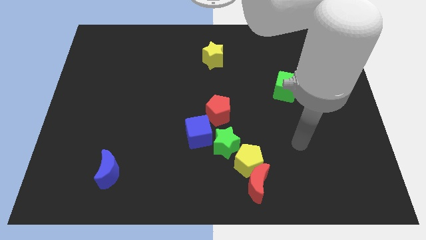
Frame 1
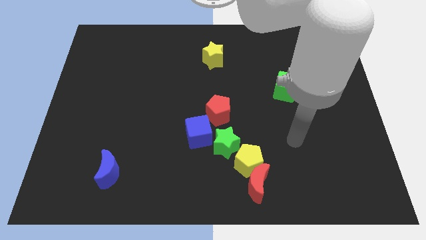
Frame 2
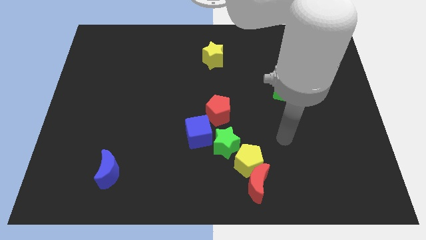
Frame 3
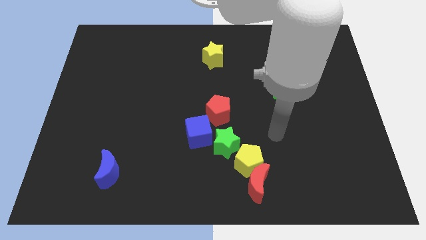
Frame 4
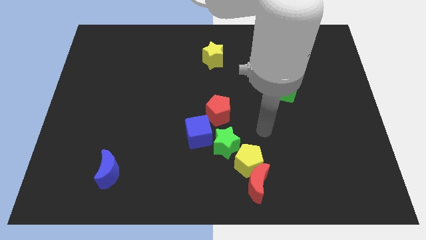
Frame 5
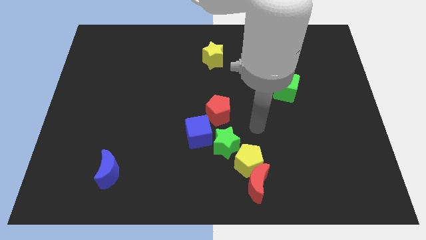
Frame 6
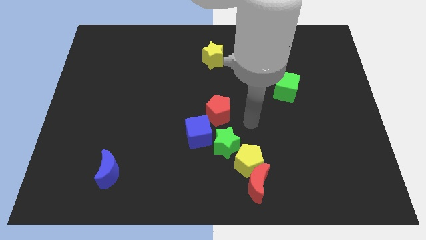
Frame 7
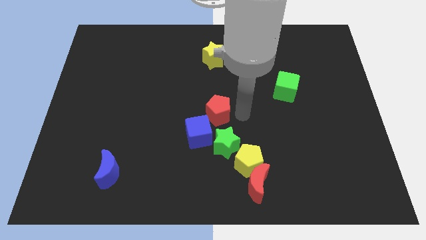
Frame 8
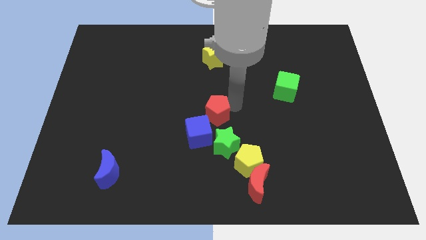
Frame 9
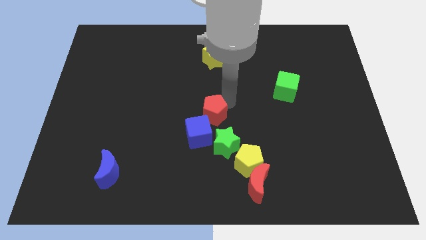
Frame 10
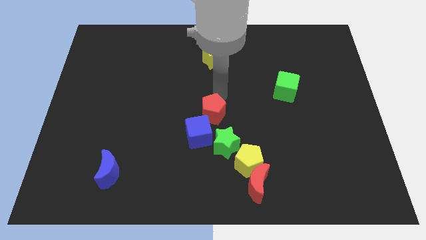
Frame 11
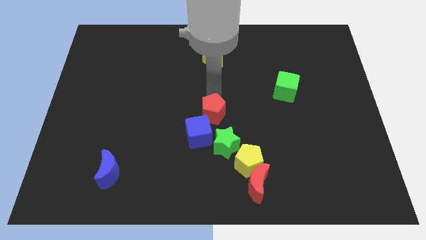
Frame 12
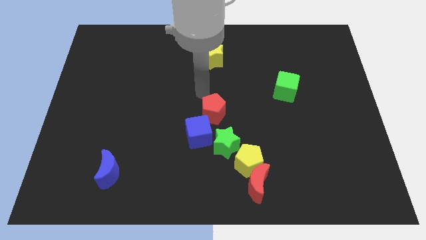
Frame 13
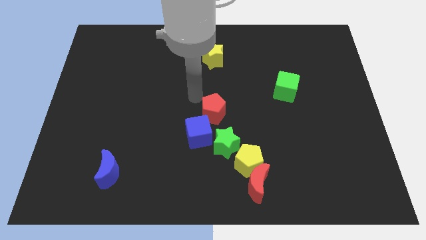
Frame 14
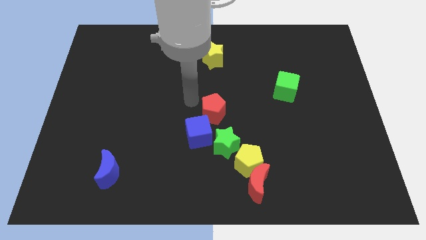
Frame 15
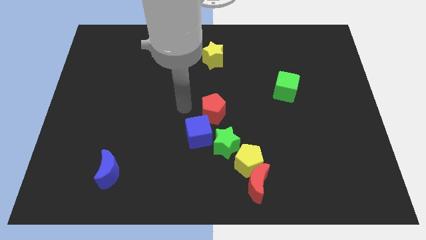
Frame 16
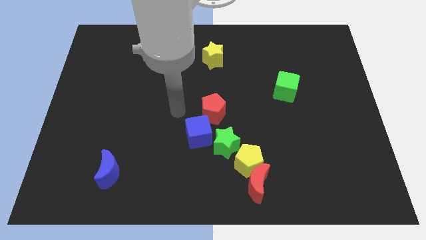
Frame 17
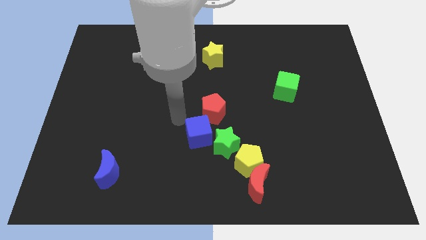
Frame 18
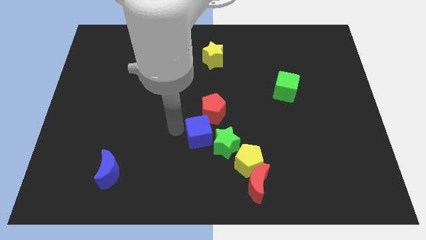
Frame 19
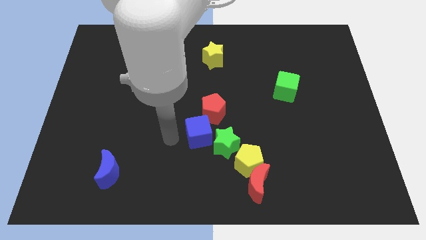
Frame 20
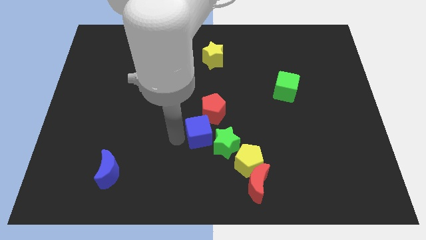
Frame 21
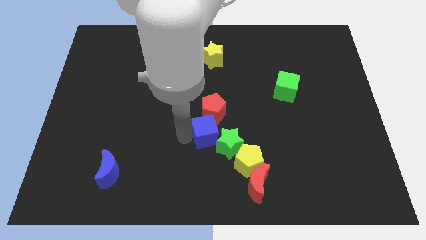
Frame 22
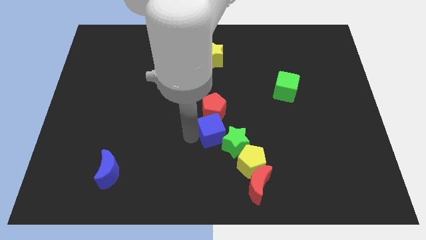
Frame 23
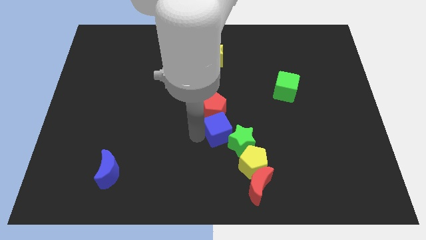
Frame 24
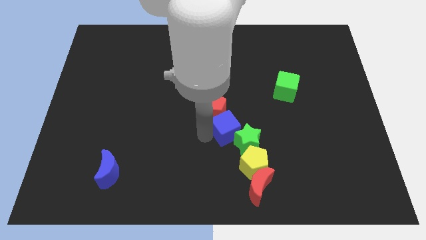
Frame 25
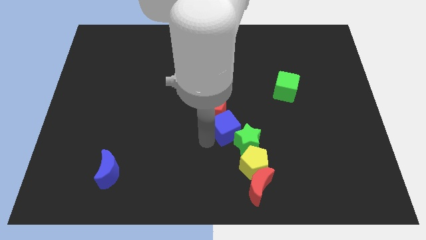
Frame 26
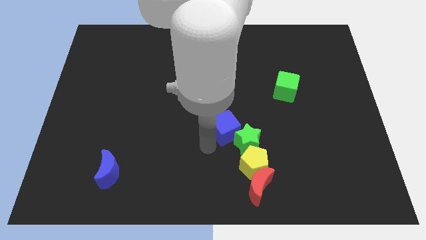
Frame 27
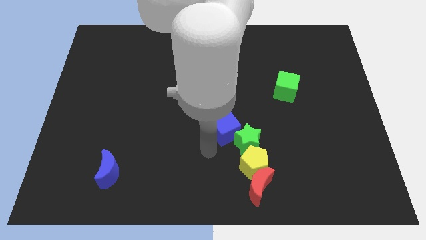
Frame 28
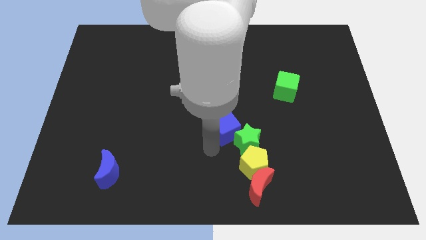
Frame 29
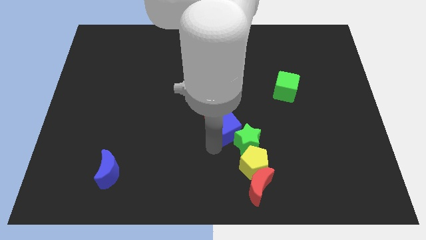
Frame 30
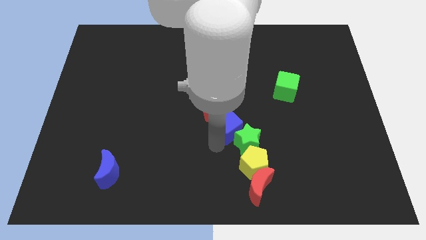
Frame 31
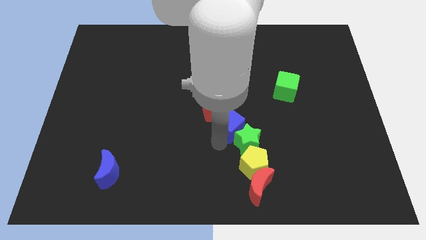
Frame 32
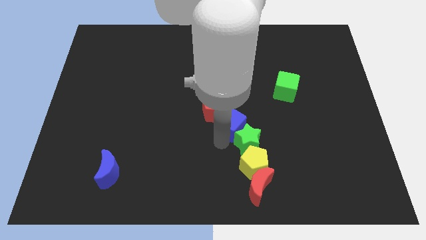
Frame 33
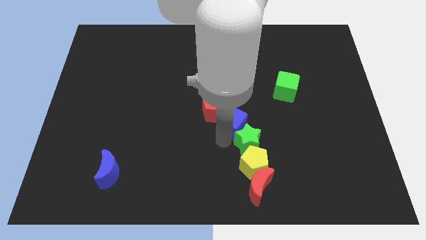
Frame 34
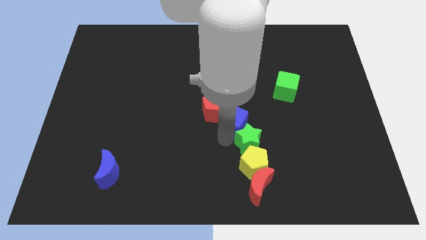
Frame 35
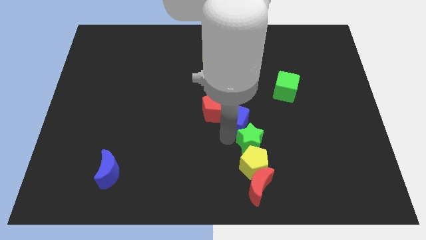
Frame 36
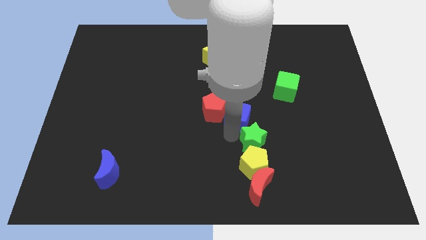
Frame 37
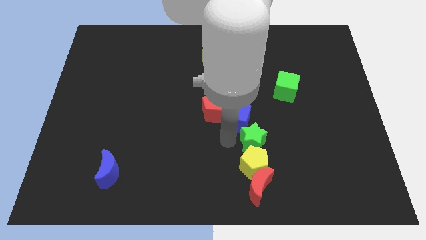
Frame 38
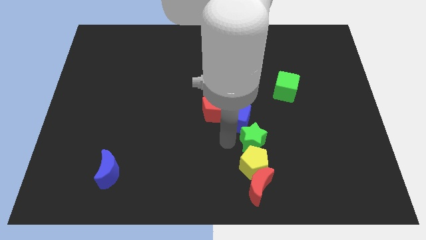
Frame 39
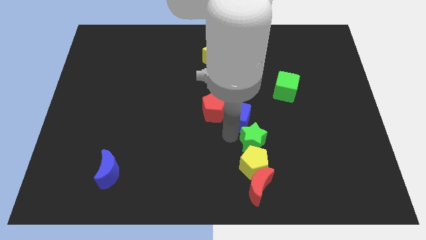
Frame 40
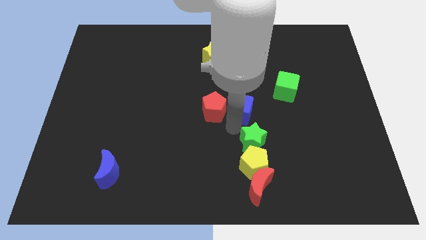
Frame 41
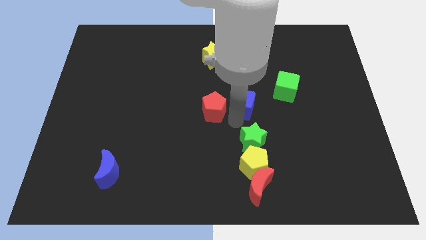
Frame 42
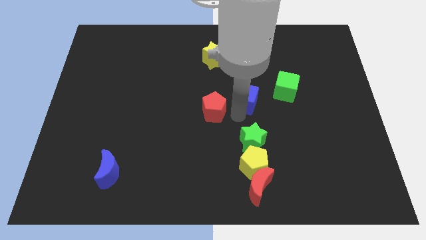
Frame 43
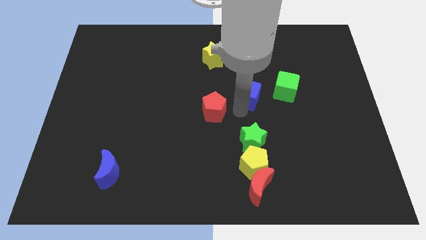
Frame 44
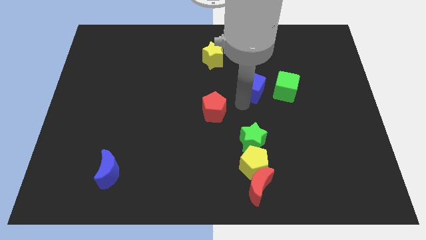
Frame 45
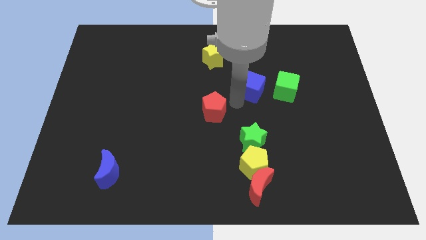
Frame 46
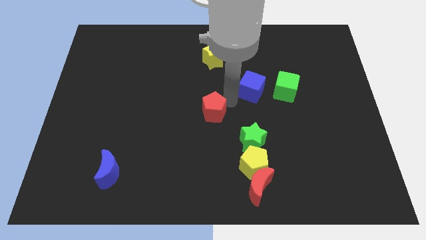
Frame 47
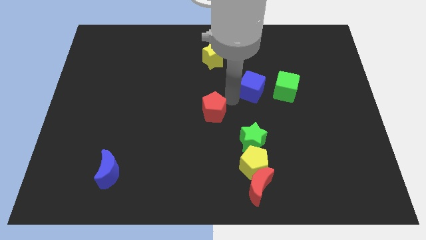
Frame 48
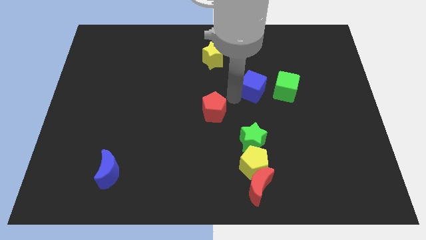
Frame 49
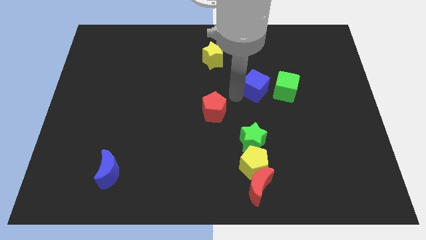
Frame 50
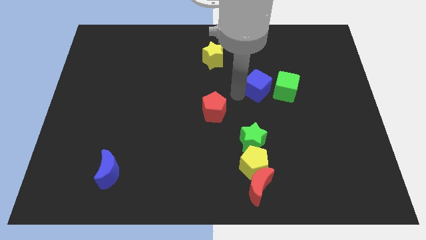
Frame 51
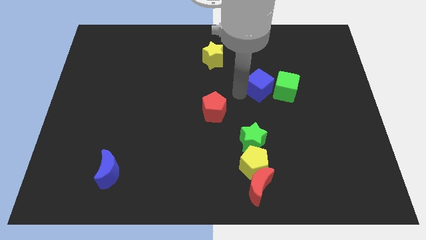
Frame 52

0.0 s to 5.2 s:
move the blue cube diagonally upwards and to the right

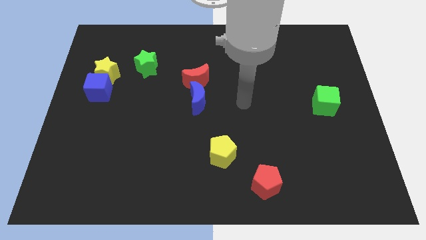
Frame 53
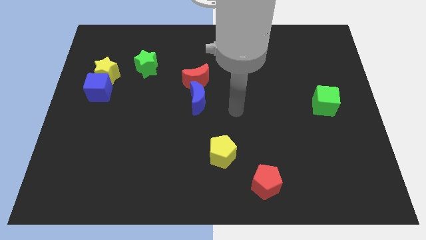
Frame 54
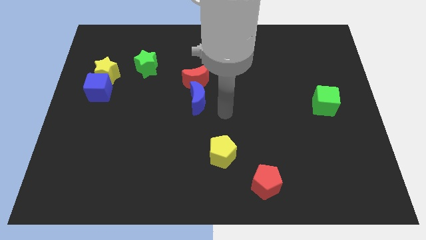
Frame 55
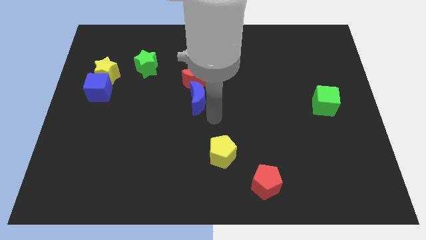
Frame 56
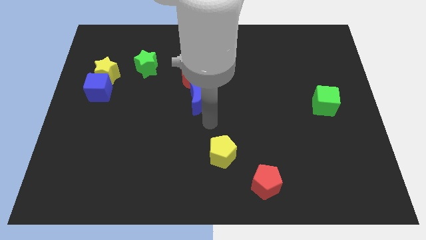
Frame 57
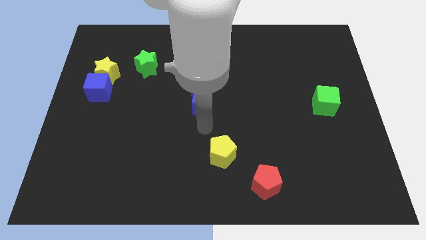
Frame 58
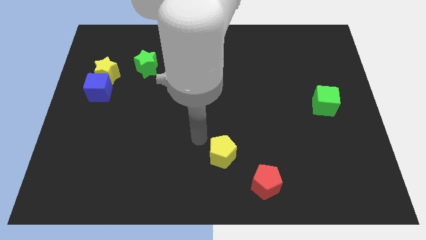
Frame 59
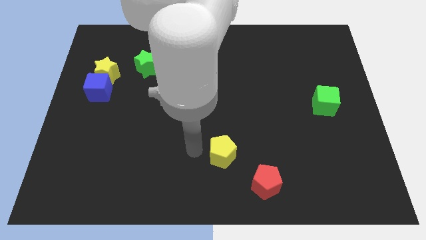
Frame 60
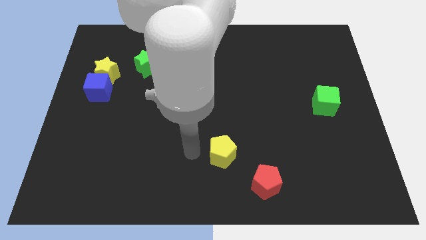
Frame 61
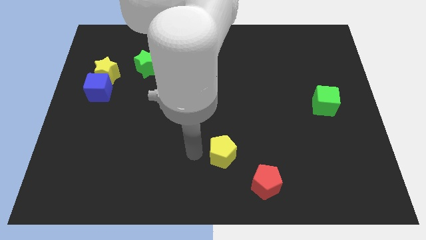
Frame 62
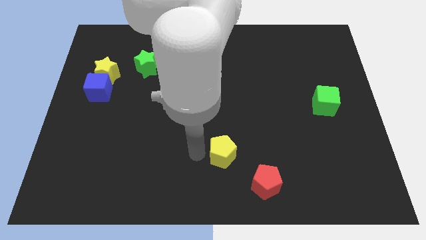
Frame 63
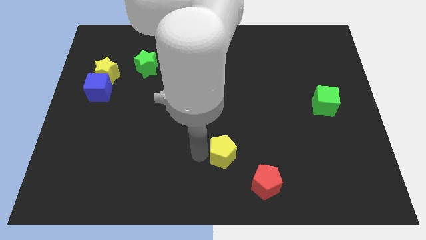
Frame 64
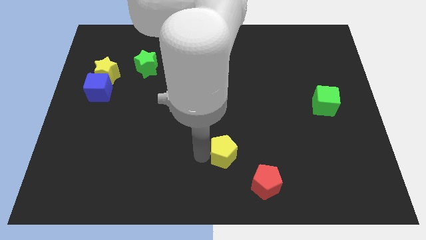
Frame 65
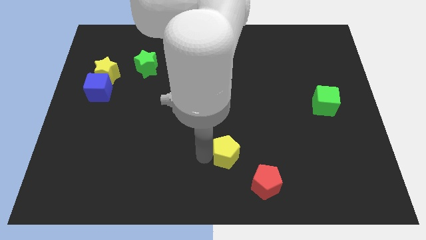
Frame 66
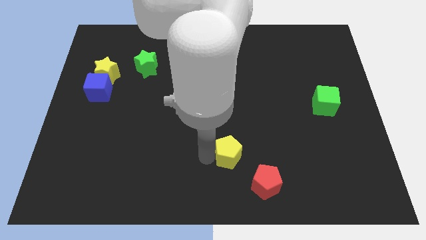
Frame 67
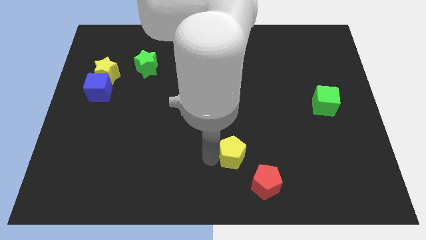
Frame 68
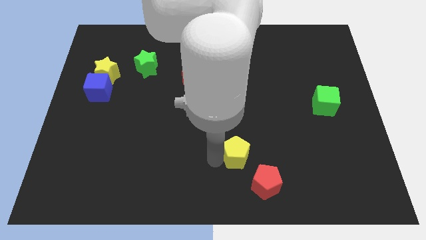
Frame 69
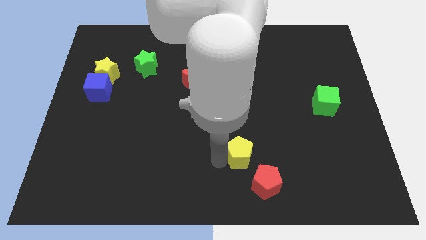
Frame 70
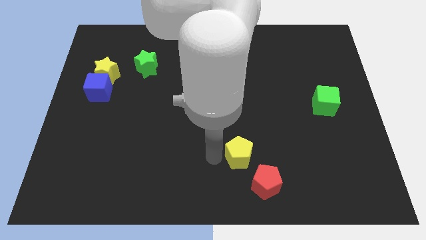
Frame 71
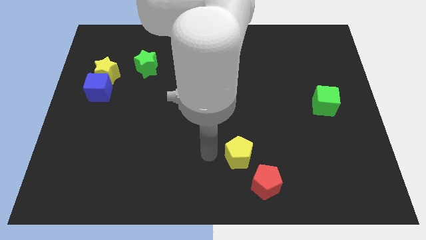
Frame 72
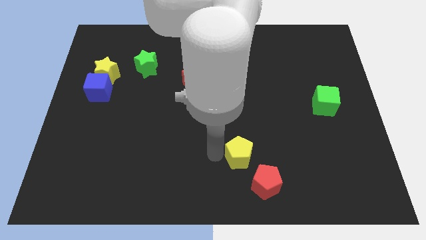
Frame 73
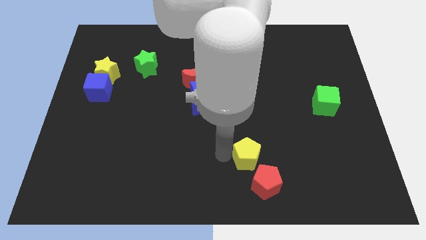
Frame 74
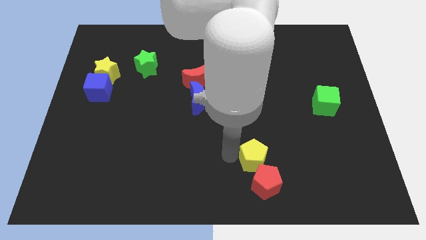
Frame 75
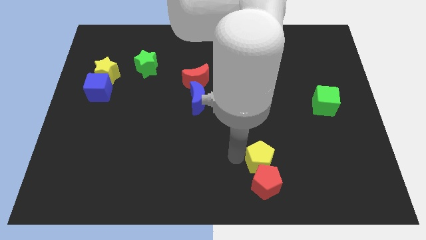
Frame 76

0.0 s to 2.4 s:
move the yellow pentagon somewhat right

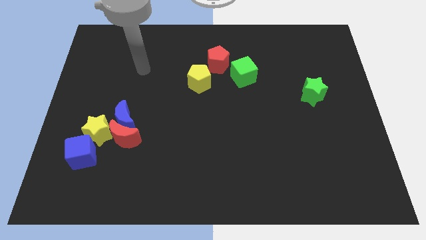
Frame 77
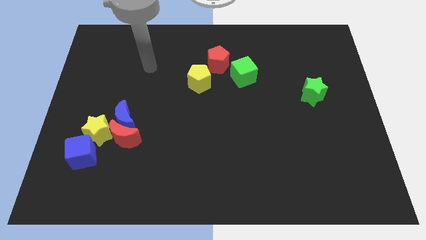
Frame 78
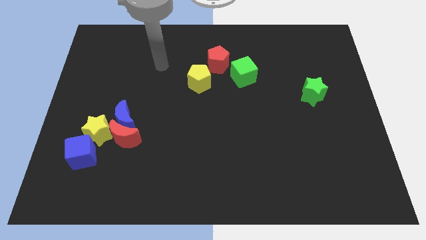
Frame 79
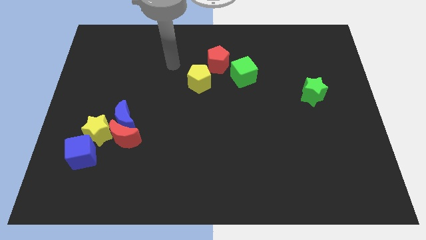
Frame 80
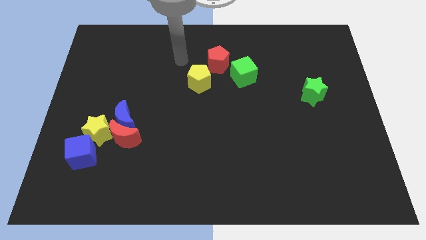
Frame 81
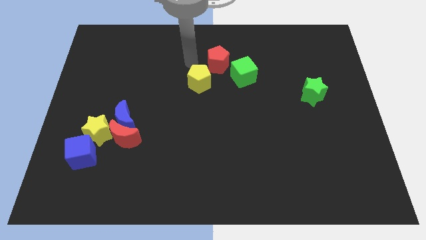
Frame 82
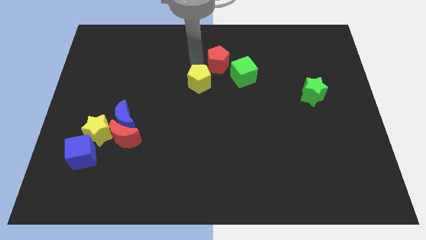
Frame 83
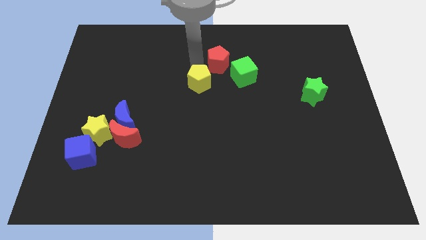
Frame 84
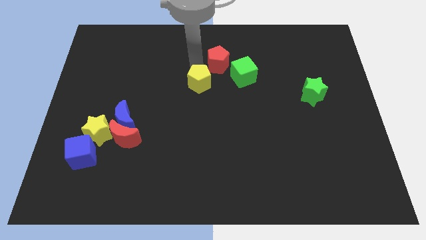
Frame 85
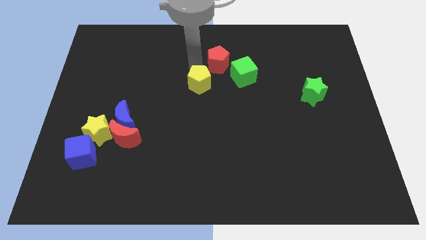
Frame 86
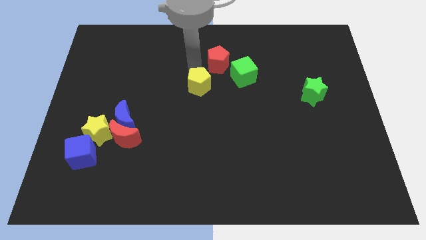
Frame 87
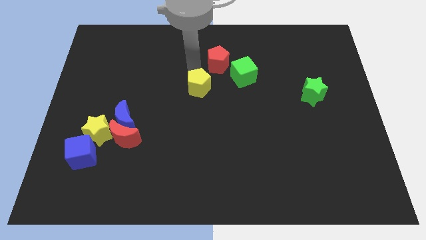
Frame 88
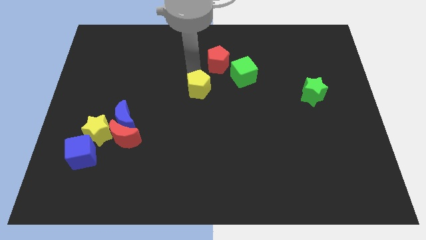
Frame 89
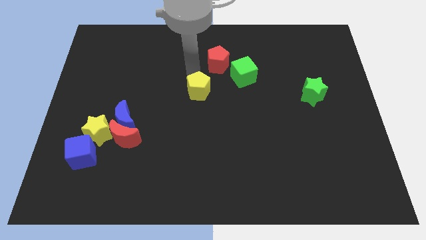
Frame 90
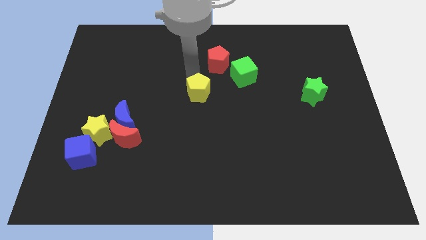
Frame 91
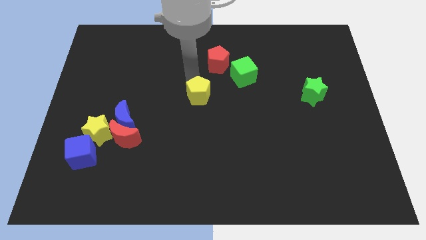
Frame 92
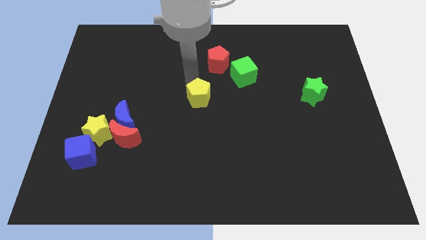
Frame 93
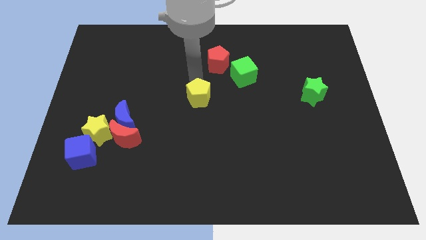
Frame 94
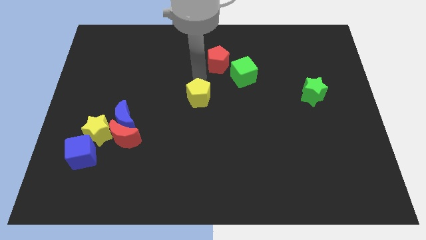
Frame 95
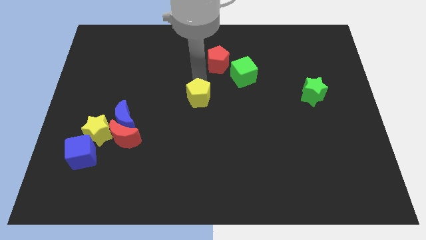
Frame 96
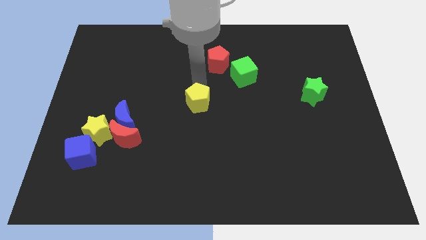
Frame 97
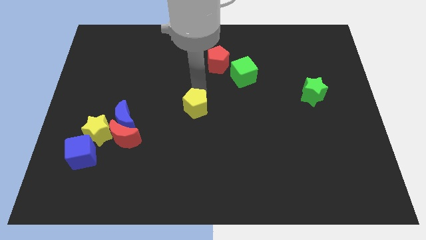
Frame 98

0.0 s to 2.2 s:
slide the yellow pentagon downwards a little bit
